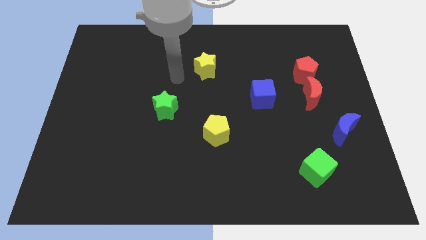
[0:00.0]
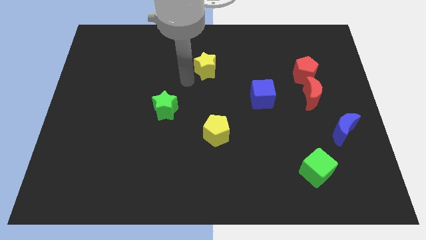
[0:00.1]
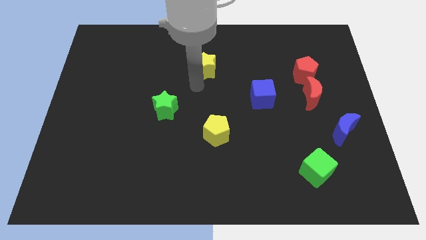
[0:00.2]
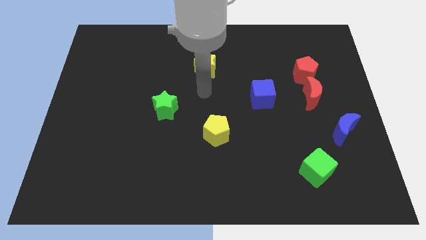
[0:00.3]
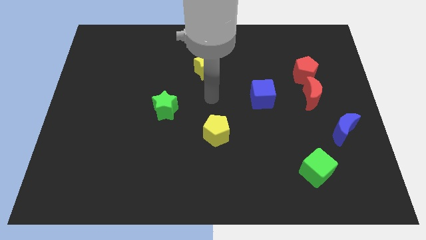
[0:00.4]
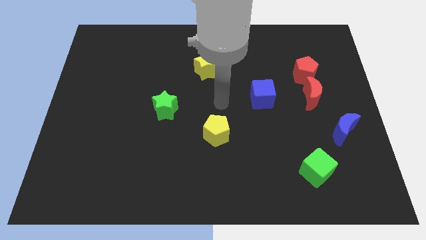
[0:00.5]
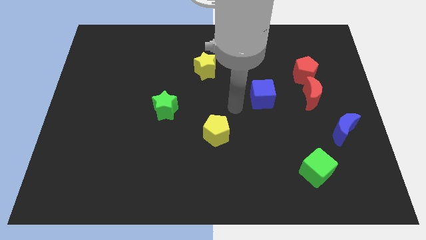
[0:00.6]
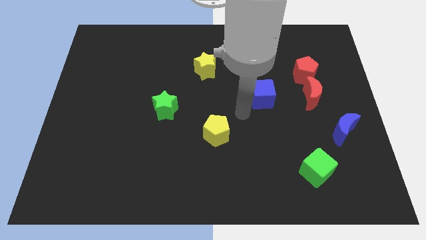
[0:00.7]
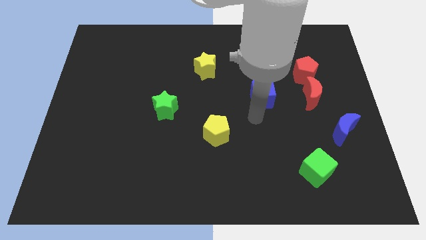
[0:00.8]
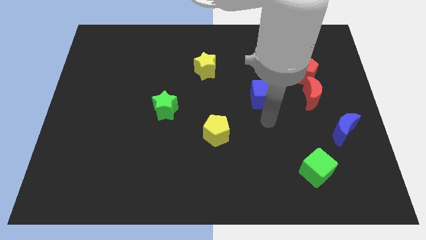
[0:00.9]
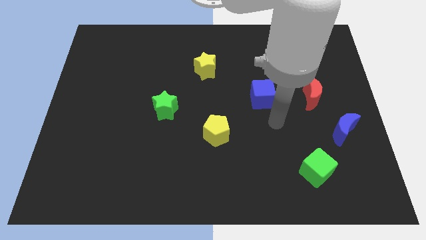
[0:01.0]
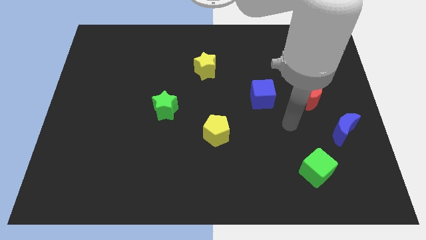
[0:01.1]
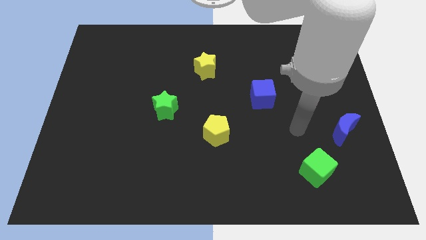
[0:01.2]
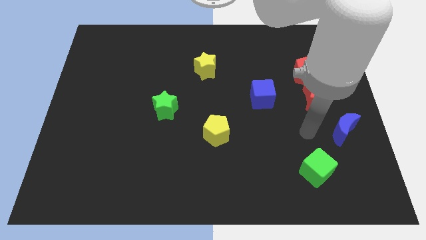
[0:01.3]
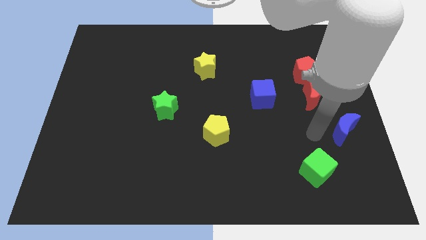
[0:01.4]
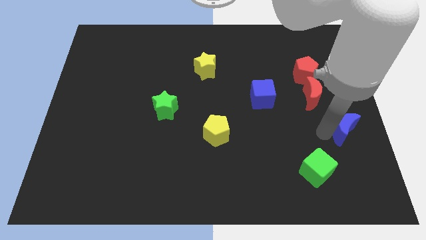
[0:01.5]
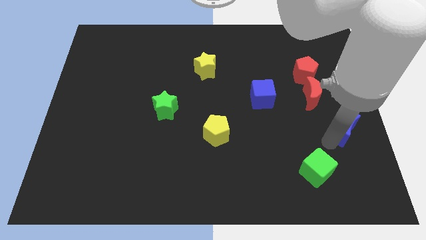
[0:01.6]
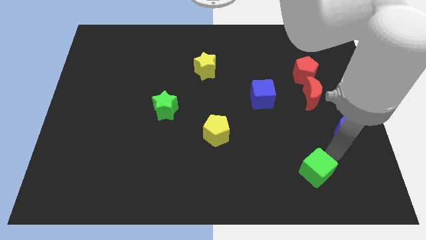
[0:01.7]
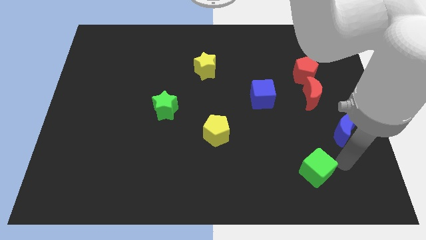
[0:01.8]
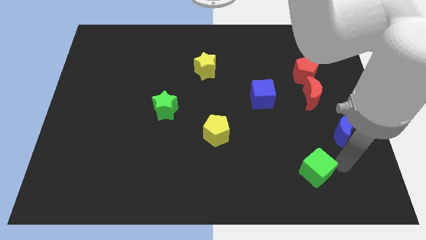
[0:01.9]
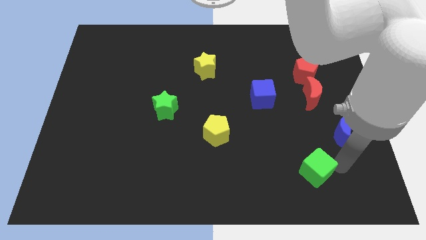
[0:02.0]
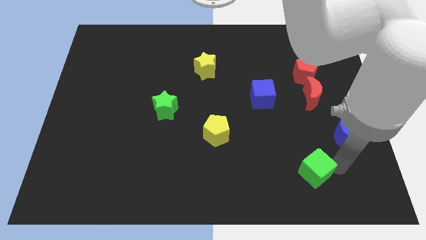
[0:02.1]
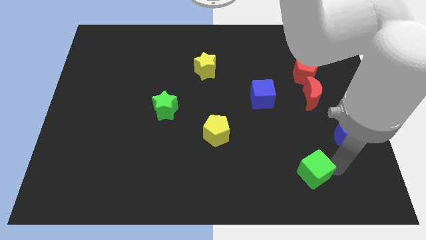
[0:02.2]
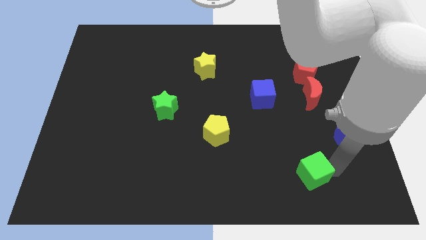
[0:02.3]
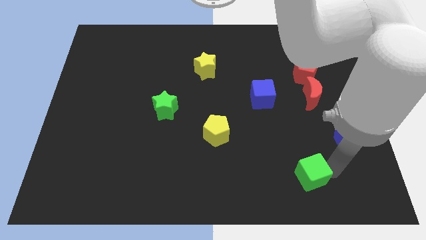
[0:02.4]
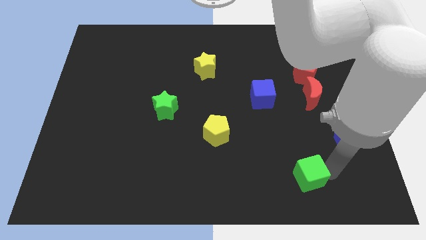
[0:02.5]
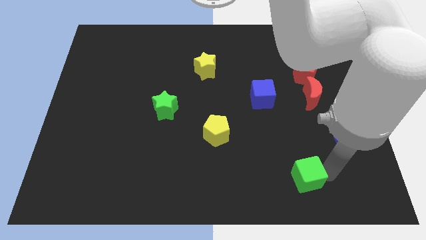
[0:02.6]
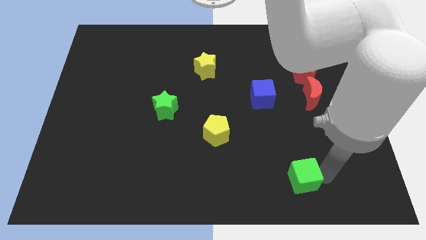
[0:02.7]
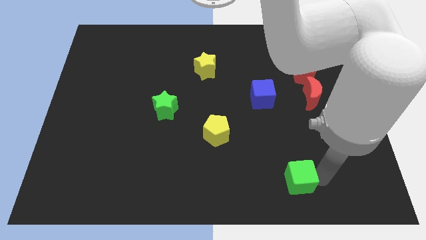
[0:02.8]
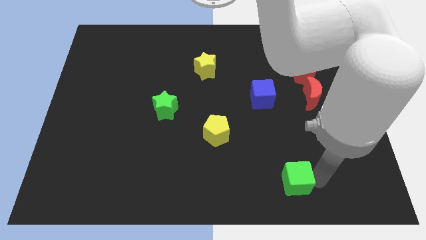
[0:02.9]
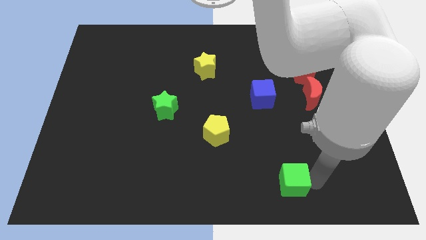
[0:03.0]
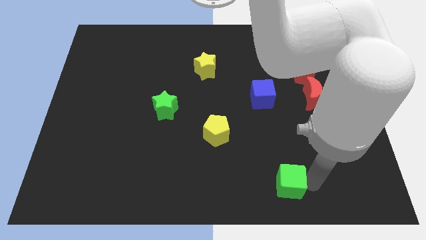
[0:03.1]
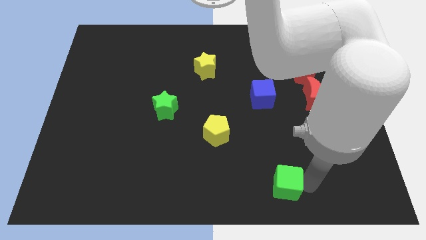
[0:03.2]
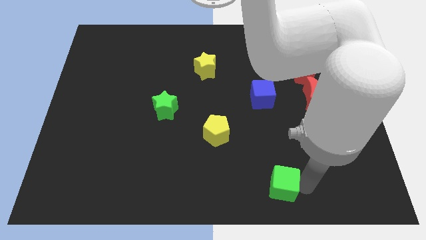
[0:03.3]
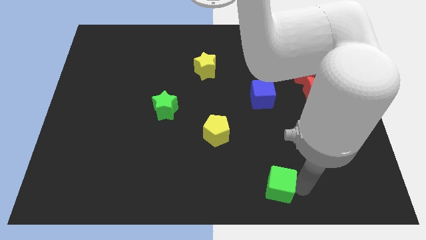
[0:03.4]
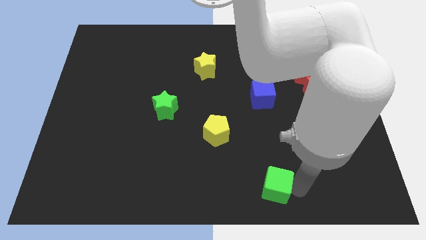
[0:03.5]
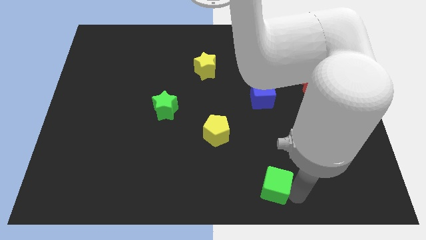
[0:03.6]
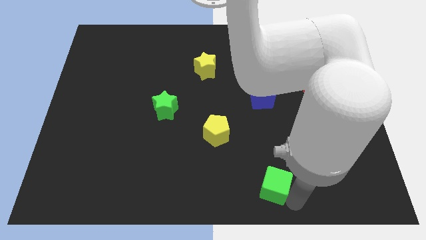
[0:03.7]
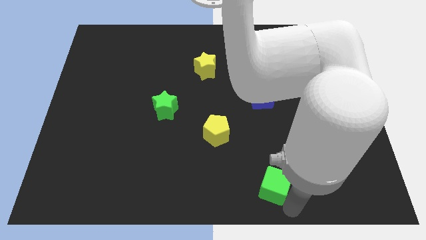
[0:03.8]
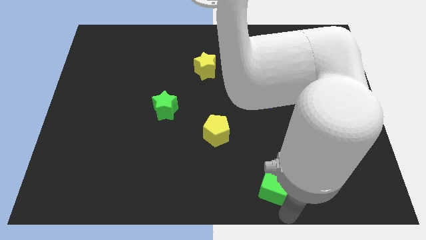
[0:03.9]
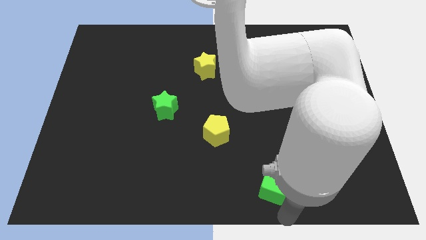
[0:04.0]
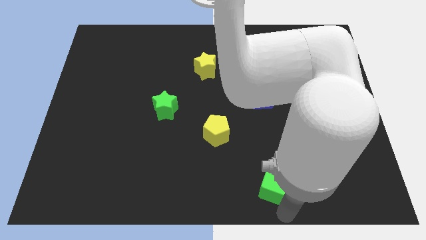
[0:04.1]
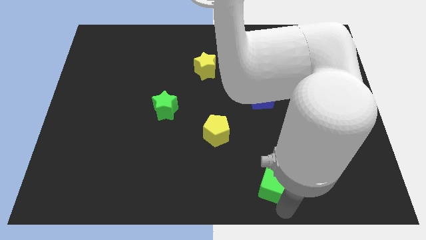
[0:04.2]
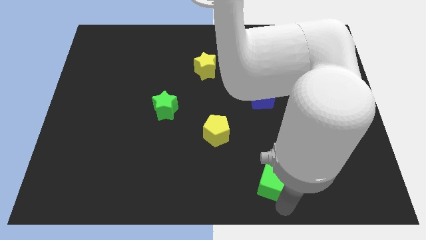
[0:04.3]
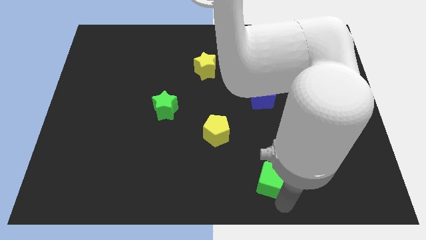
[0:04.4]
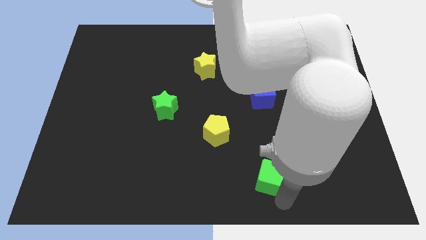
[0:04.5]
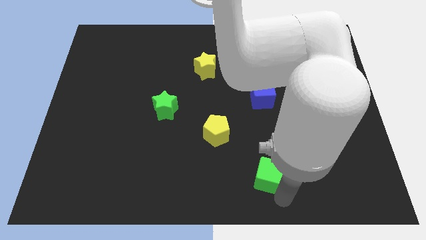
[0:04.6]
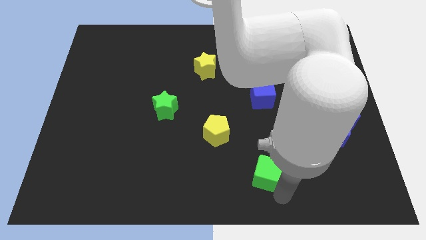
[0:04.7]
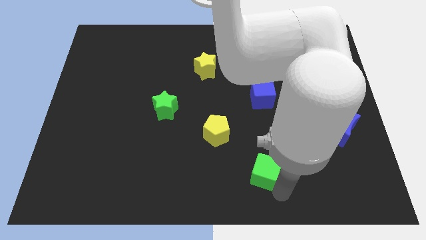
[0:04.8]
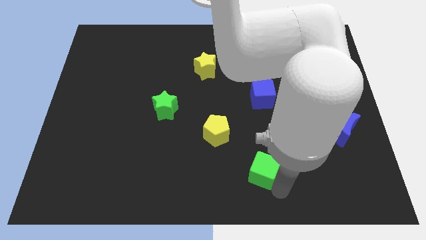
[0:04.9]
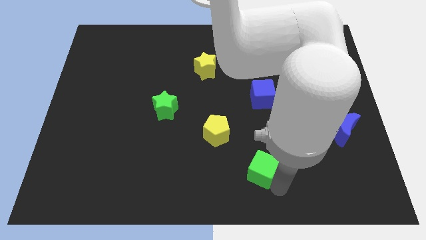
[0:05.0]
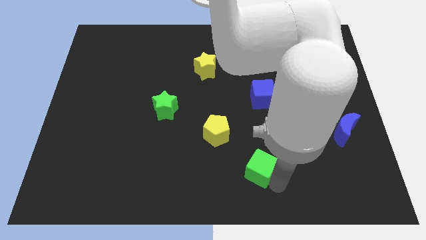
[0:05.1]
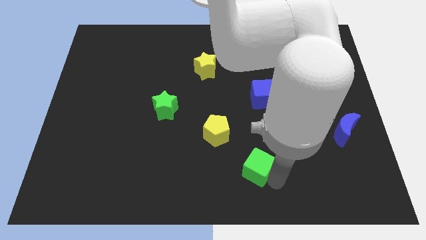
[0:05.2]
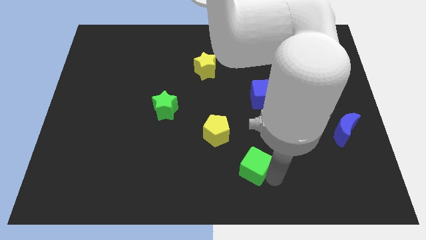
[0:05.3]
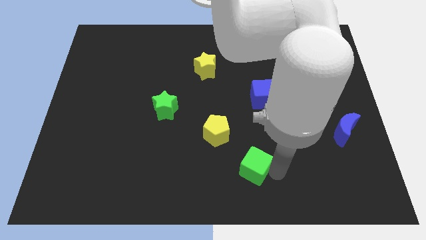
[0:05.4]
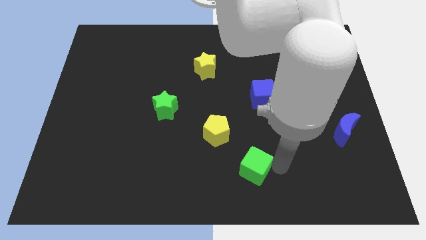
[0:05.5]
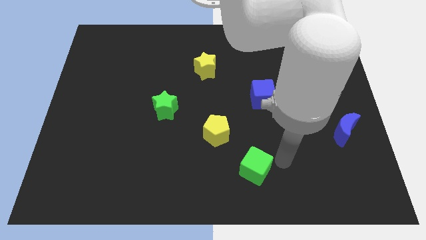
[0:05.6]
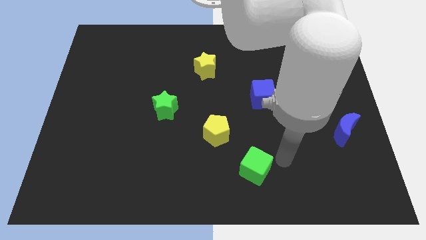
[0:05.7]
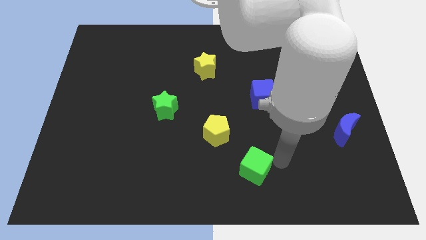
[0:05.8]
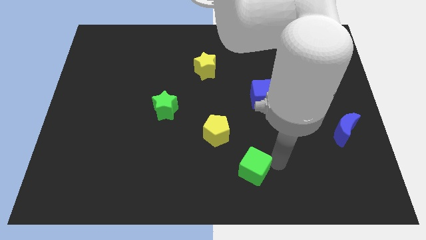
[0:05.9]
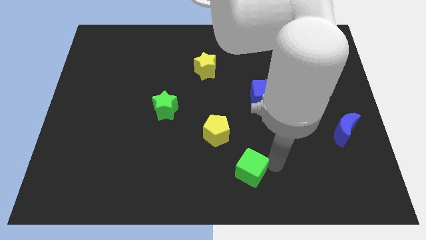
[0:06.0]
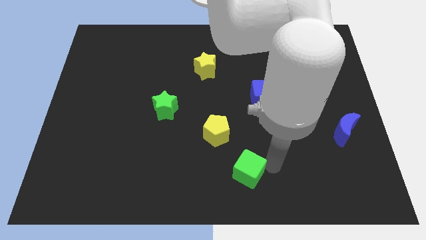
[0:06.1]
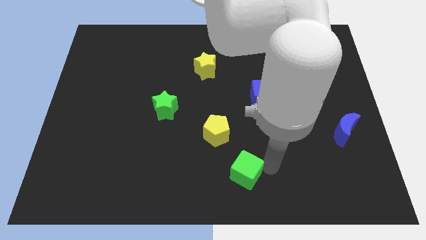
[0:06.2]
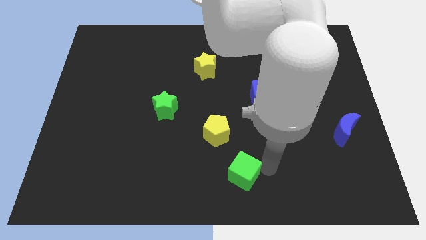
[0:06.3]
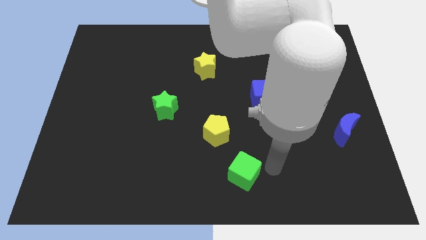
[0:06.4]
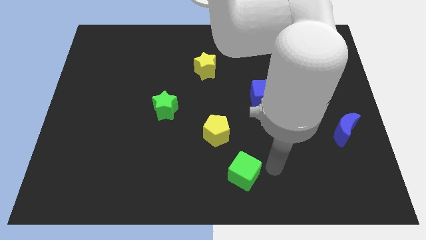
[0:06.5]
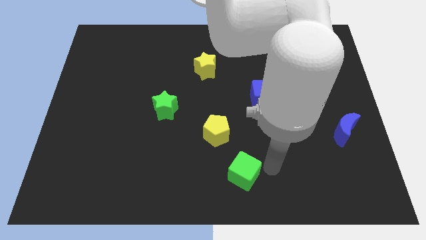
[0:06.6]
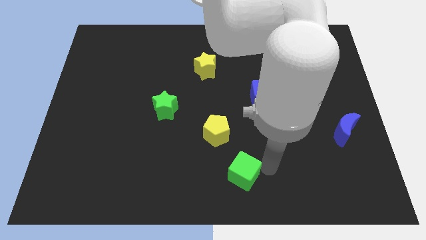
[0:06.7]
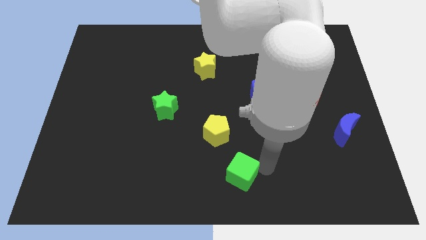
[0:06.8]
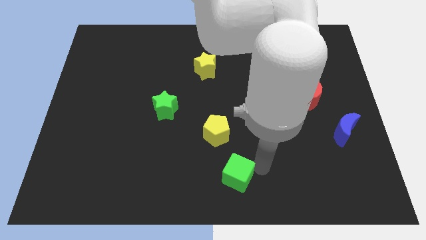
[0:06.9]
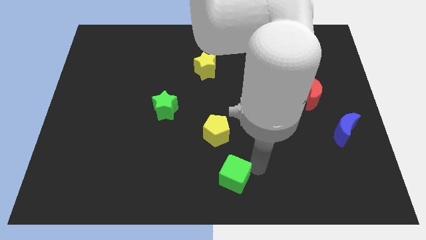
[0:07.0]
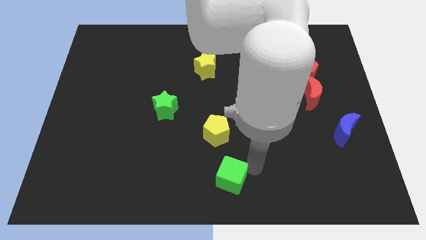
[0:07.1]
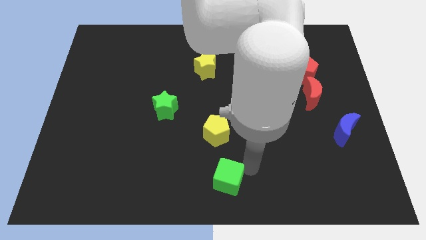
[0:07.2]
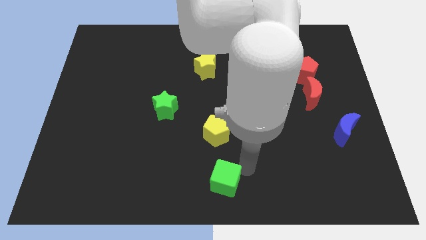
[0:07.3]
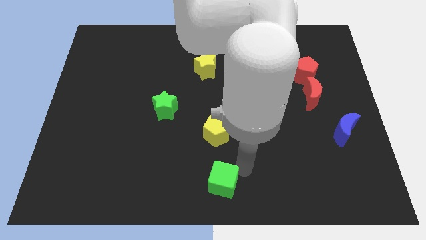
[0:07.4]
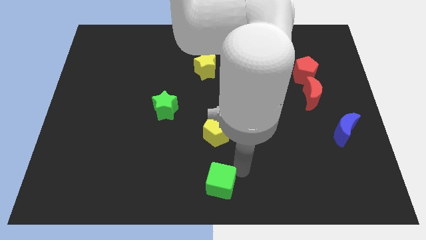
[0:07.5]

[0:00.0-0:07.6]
move the green cube to the left

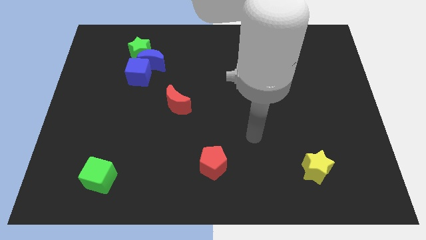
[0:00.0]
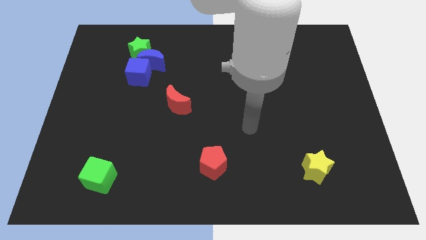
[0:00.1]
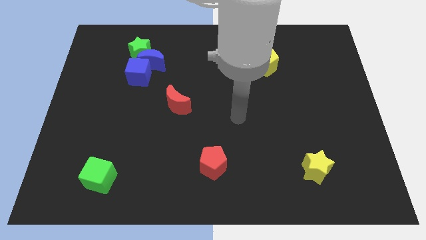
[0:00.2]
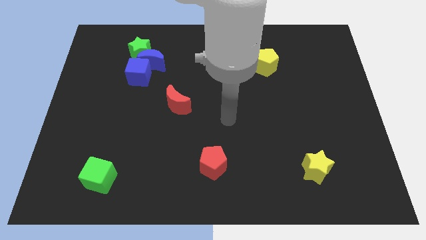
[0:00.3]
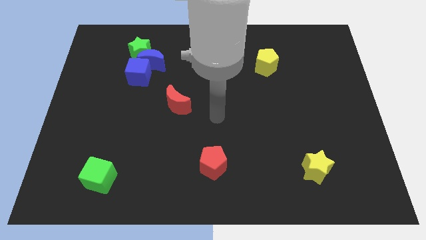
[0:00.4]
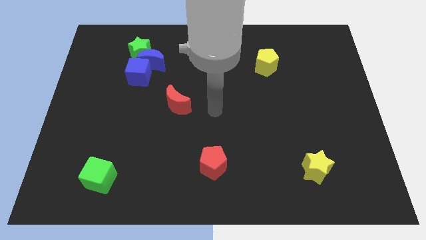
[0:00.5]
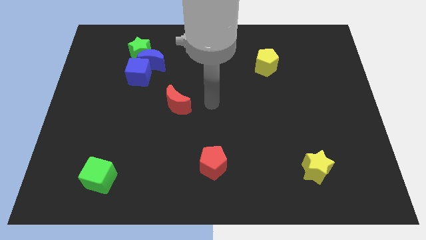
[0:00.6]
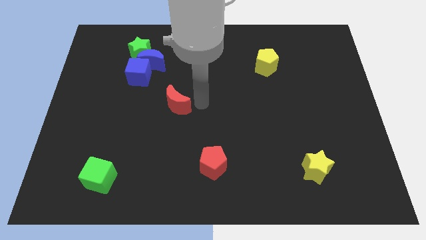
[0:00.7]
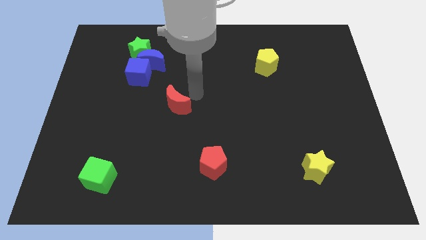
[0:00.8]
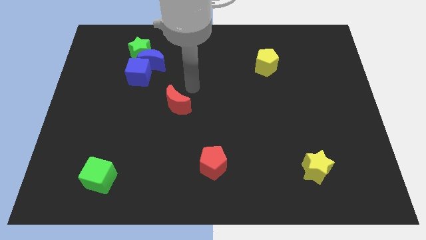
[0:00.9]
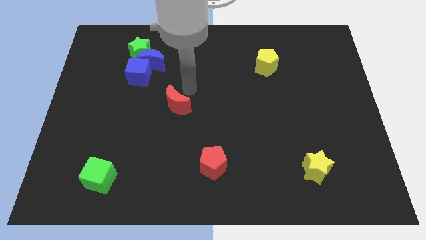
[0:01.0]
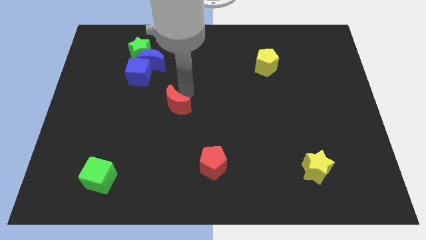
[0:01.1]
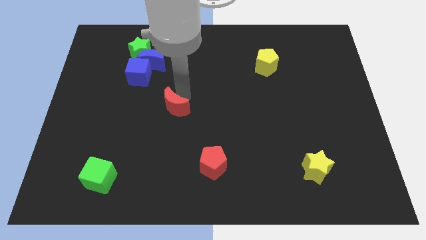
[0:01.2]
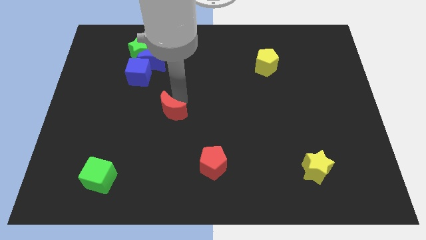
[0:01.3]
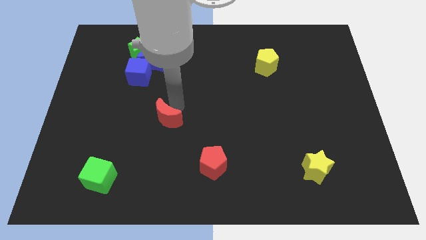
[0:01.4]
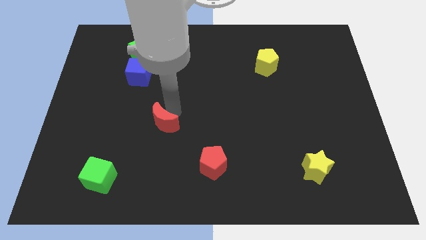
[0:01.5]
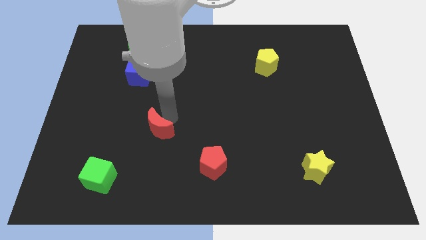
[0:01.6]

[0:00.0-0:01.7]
push the red moon diagonally downwards and to the left a little
